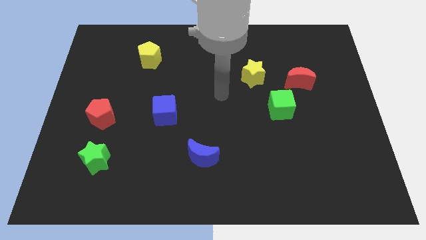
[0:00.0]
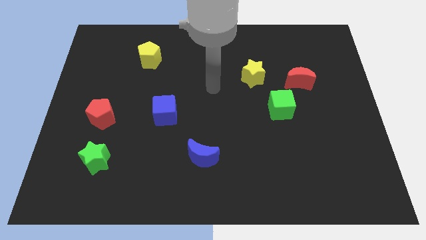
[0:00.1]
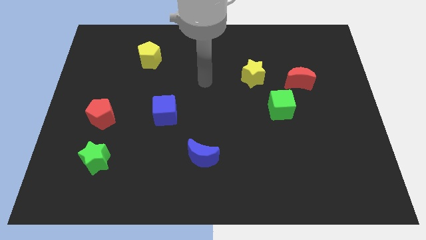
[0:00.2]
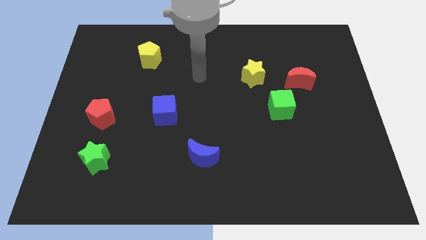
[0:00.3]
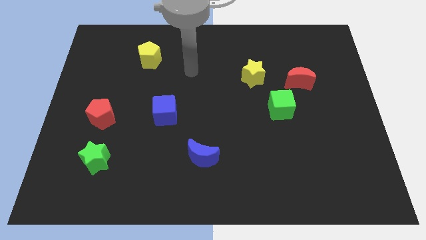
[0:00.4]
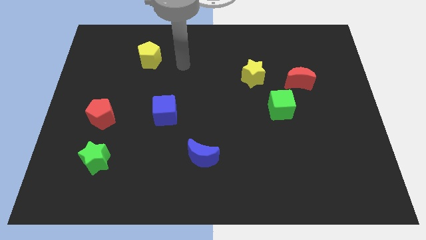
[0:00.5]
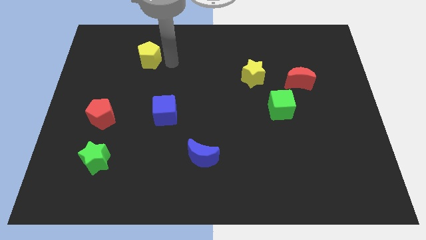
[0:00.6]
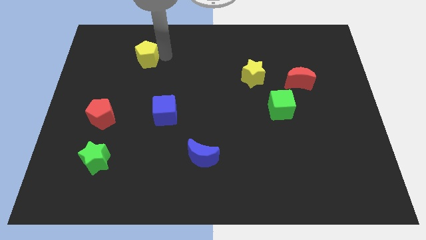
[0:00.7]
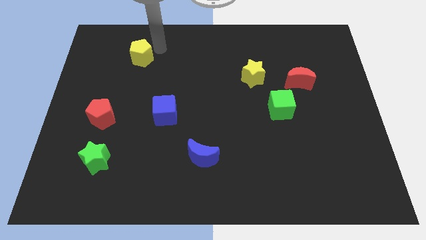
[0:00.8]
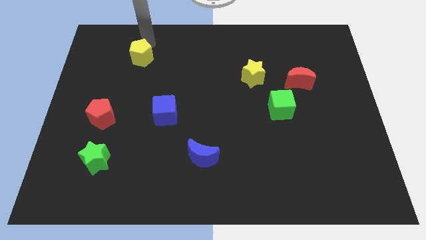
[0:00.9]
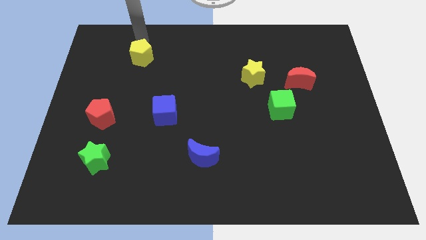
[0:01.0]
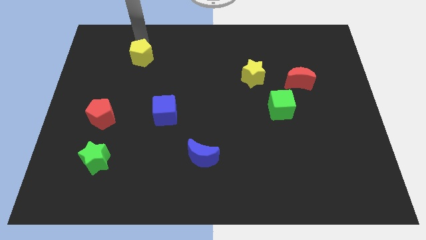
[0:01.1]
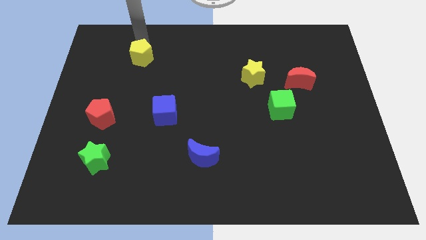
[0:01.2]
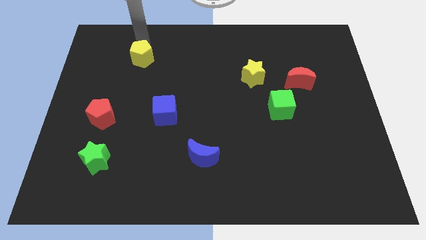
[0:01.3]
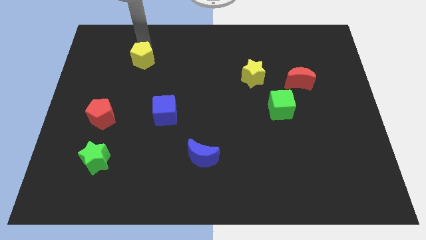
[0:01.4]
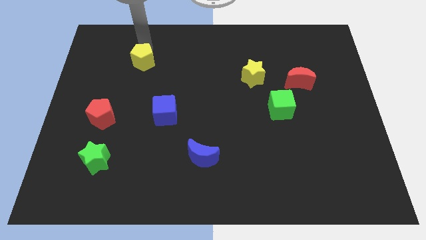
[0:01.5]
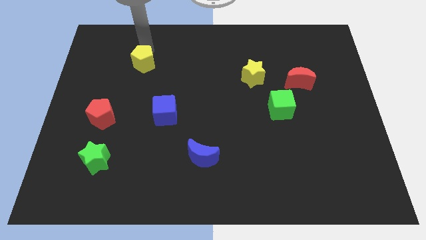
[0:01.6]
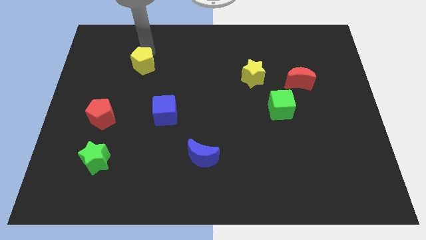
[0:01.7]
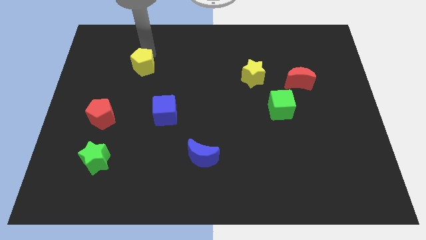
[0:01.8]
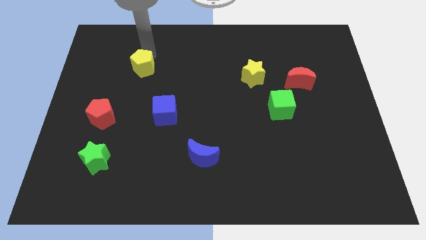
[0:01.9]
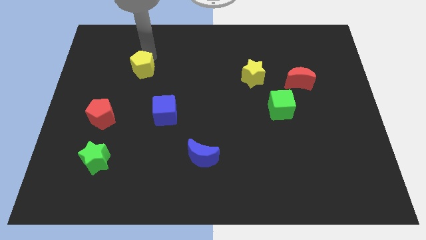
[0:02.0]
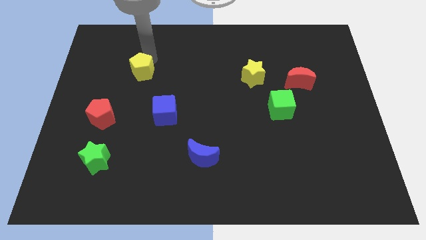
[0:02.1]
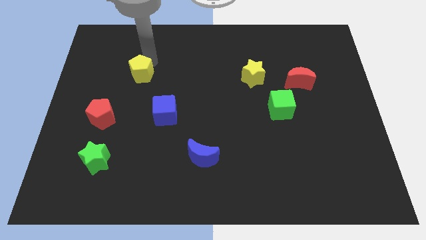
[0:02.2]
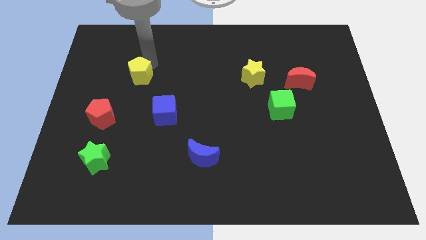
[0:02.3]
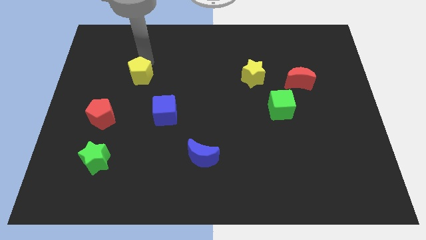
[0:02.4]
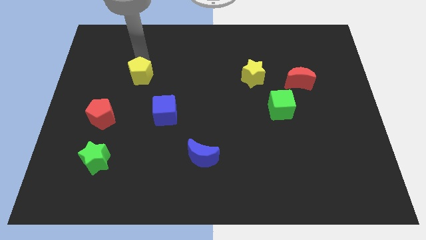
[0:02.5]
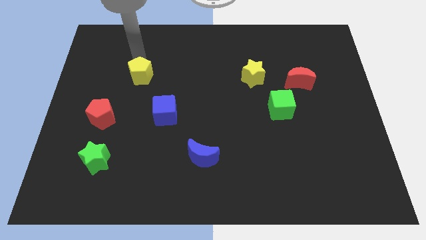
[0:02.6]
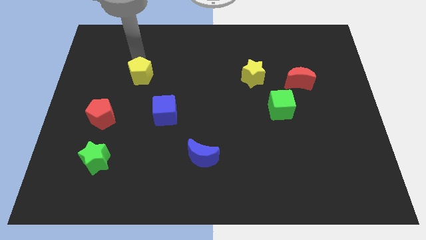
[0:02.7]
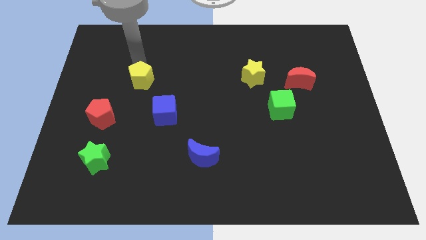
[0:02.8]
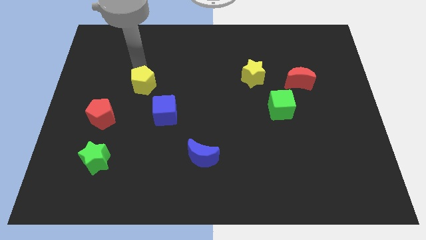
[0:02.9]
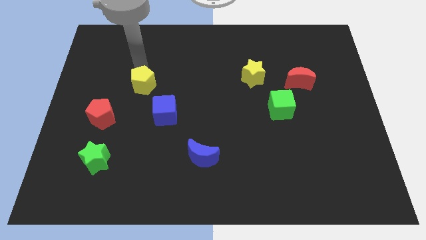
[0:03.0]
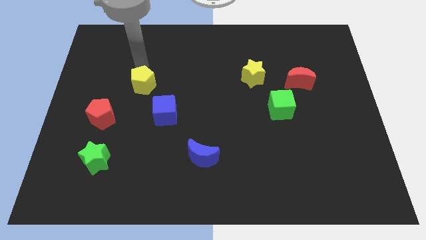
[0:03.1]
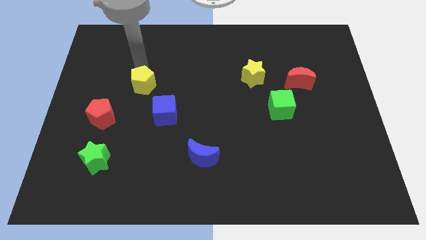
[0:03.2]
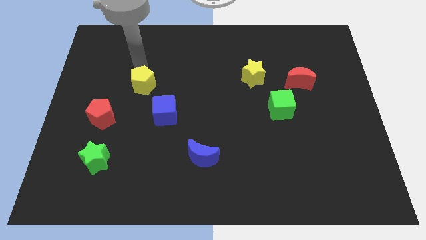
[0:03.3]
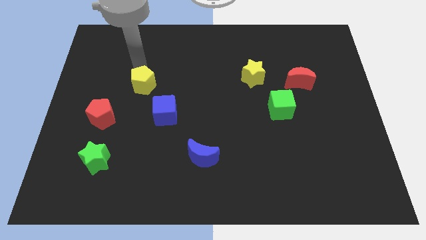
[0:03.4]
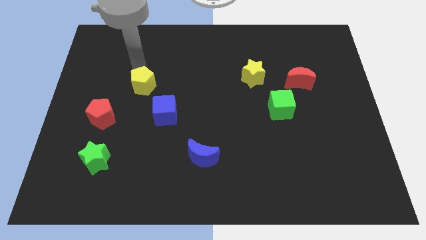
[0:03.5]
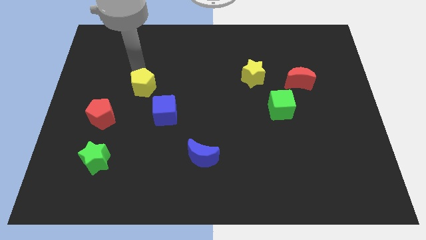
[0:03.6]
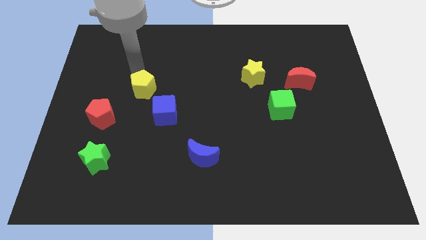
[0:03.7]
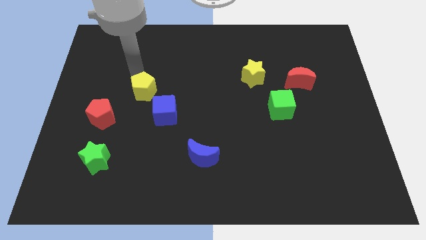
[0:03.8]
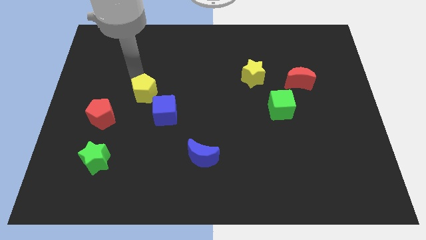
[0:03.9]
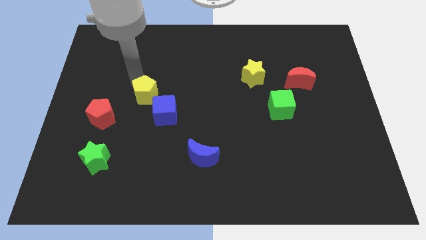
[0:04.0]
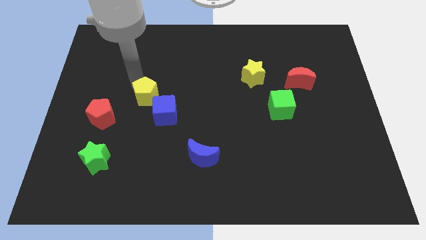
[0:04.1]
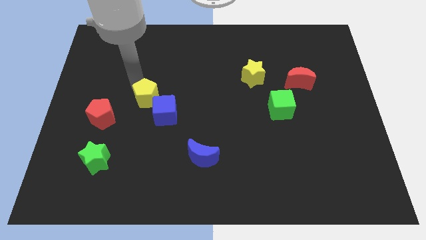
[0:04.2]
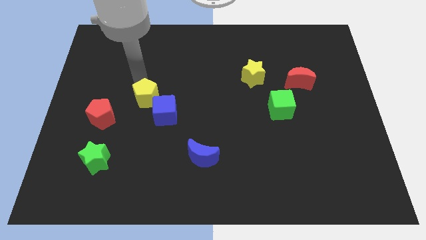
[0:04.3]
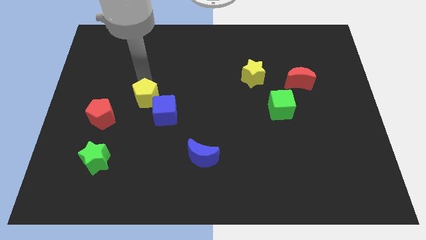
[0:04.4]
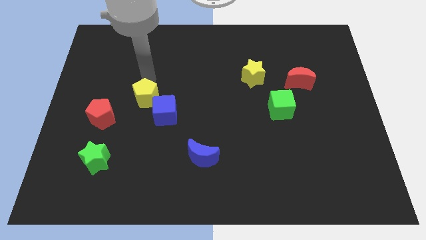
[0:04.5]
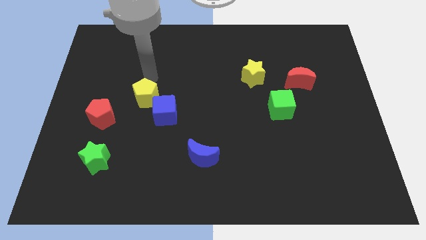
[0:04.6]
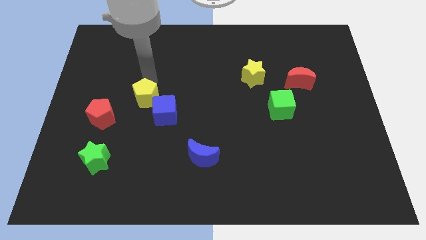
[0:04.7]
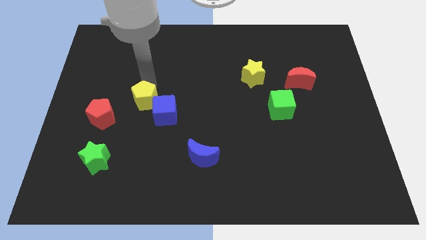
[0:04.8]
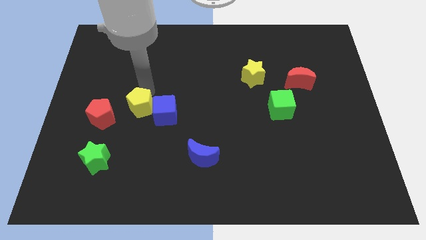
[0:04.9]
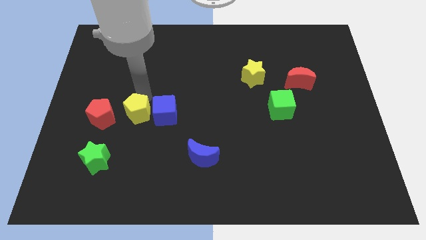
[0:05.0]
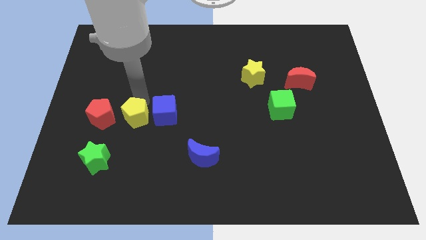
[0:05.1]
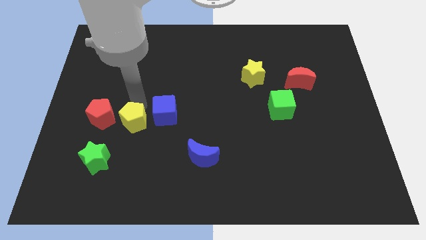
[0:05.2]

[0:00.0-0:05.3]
push the yellow pentagon downwards

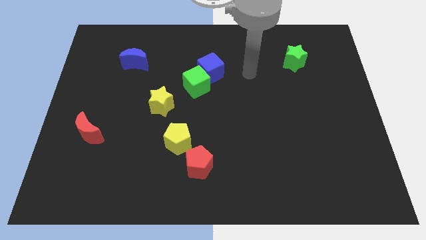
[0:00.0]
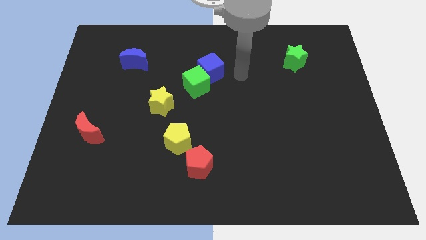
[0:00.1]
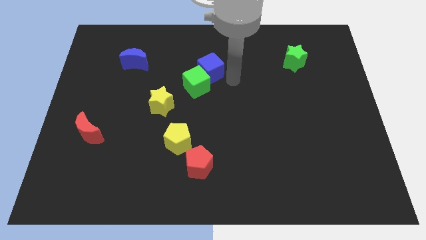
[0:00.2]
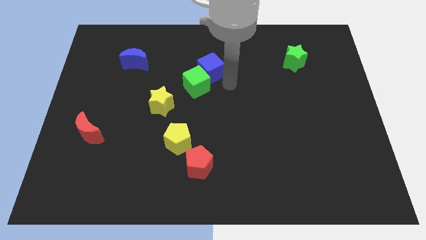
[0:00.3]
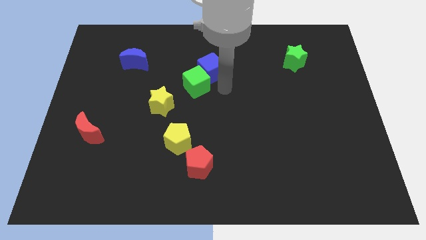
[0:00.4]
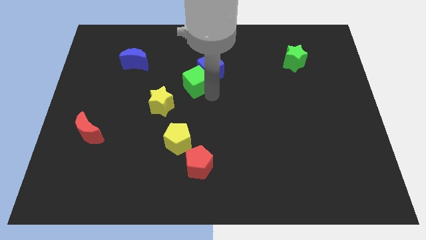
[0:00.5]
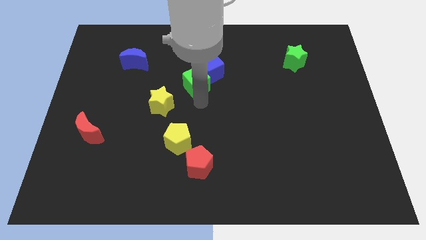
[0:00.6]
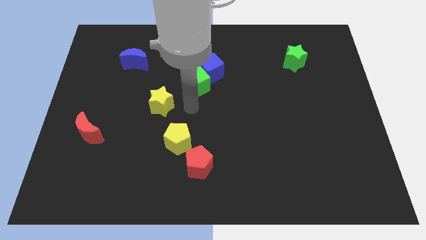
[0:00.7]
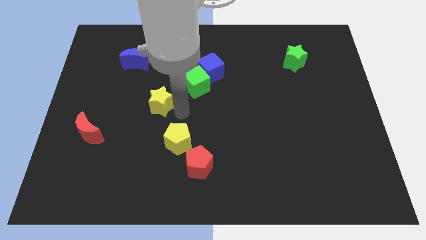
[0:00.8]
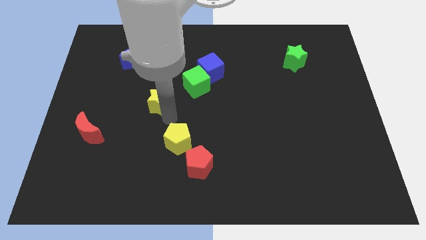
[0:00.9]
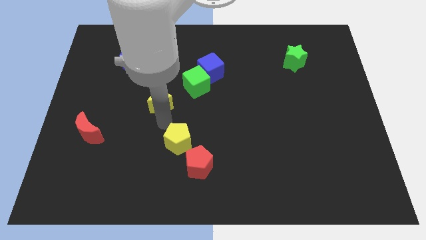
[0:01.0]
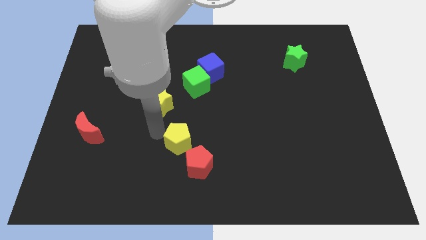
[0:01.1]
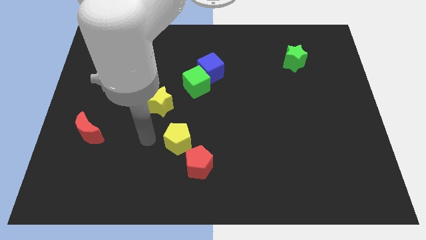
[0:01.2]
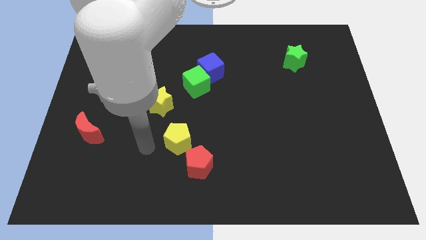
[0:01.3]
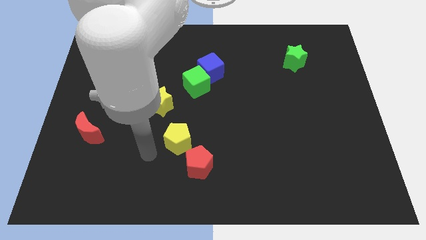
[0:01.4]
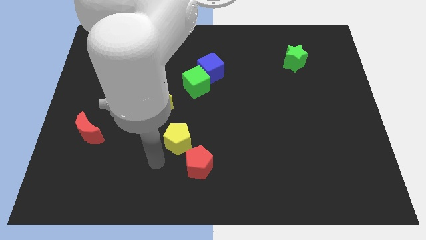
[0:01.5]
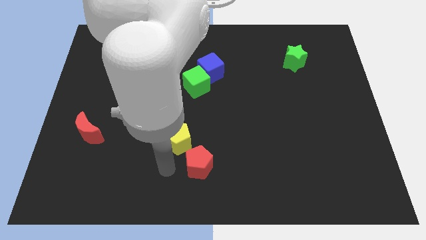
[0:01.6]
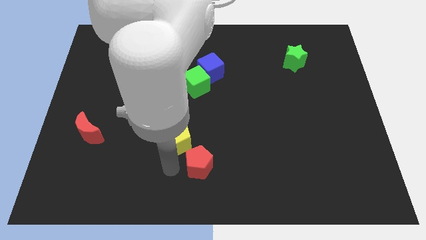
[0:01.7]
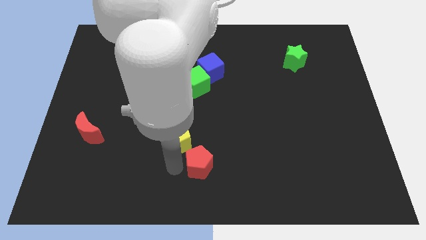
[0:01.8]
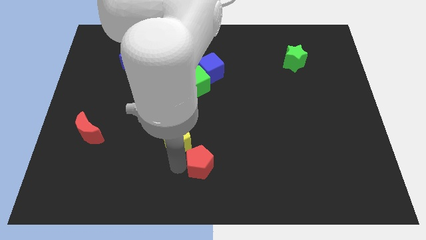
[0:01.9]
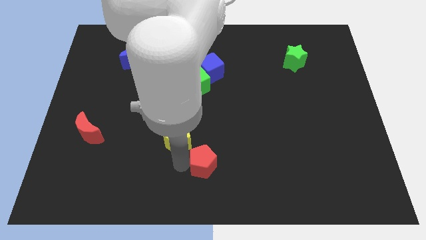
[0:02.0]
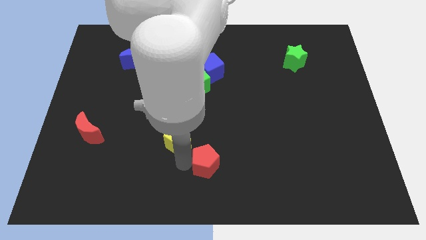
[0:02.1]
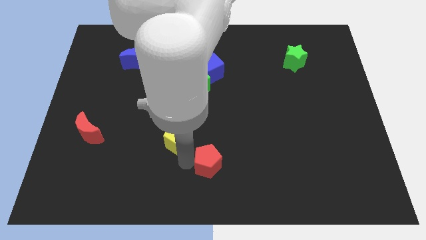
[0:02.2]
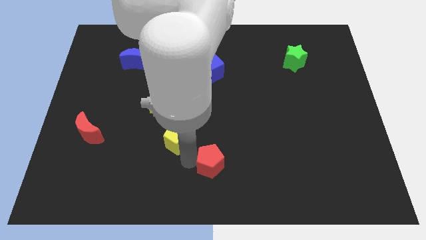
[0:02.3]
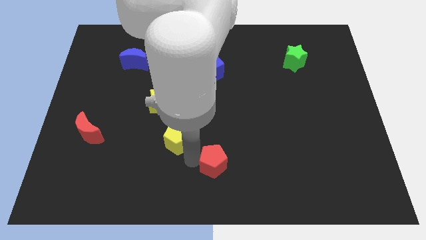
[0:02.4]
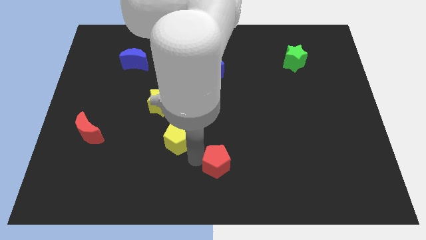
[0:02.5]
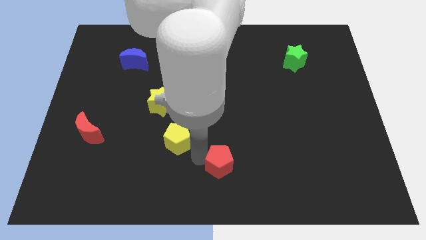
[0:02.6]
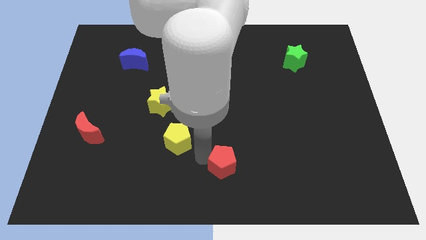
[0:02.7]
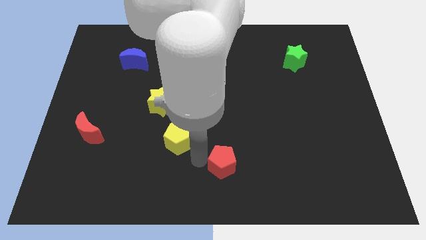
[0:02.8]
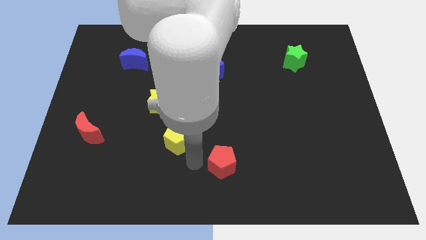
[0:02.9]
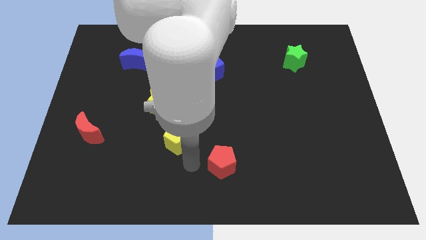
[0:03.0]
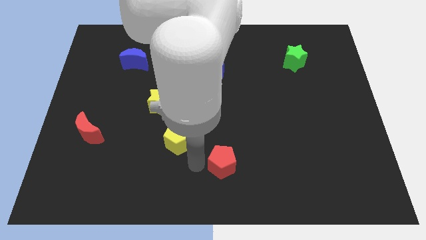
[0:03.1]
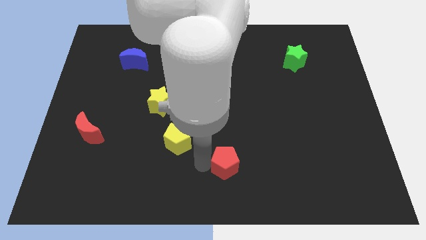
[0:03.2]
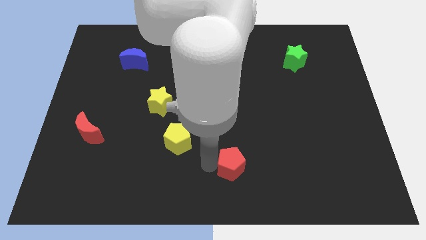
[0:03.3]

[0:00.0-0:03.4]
slide the red pentagon somewhat to the right
